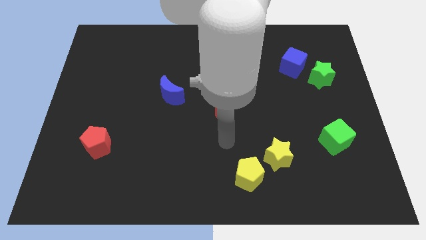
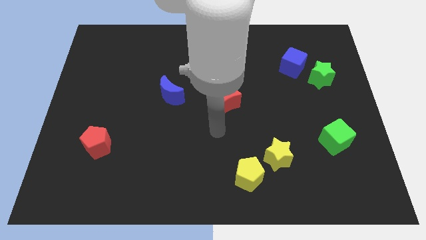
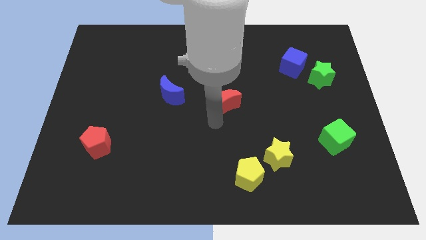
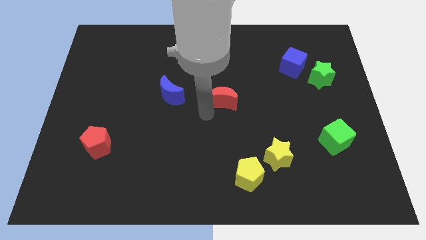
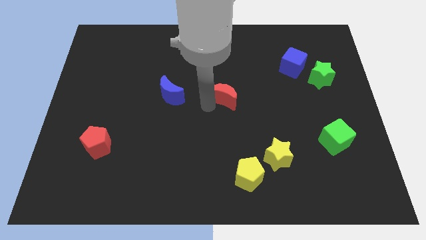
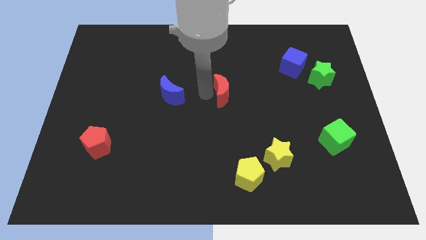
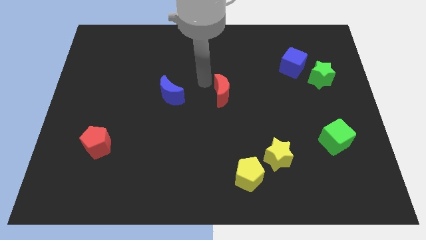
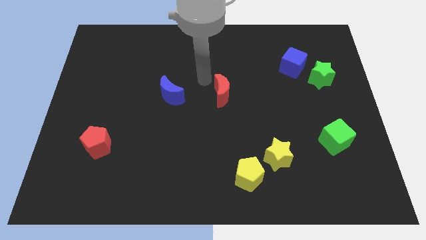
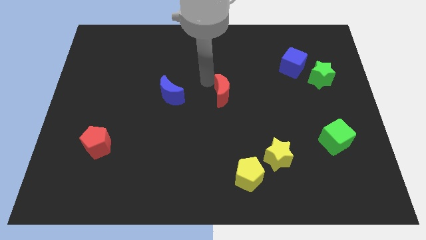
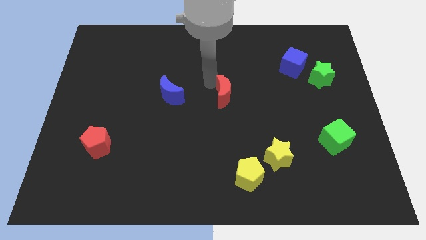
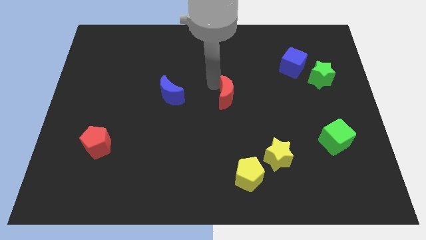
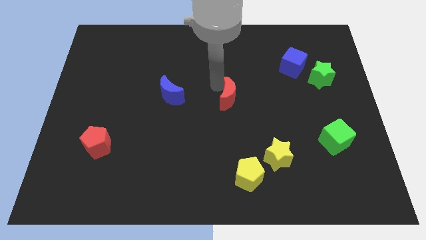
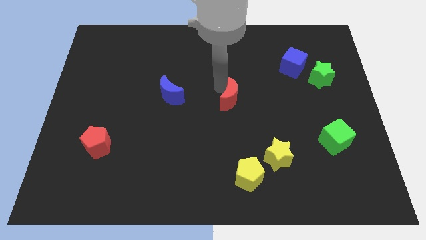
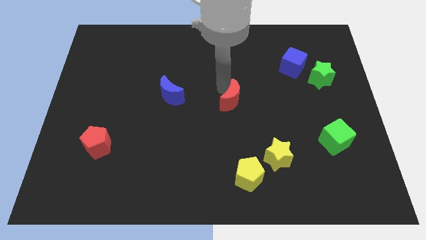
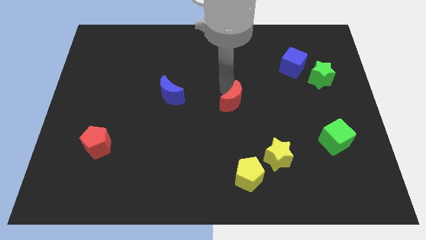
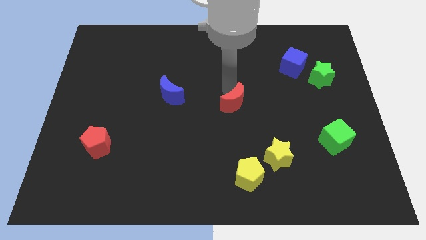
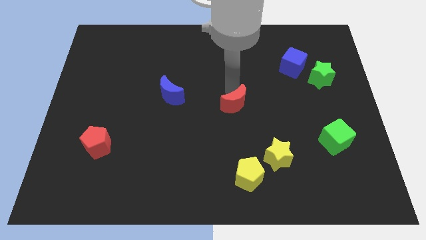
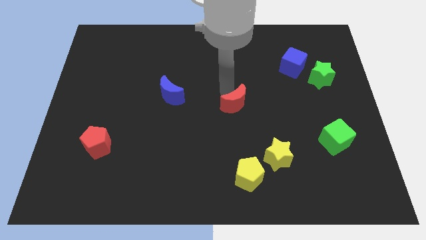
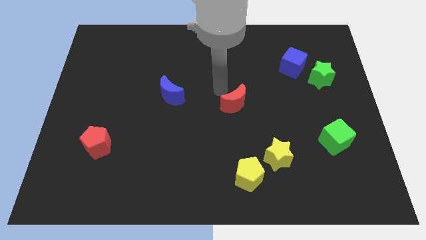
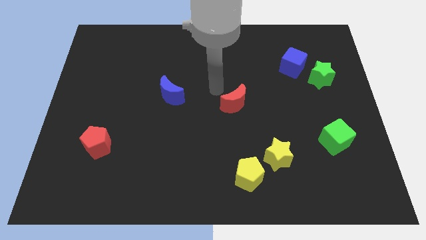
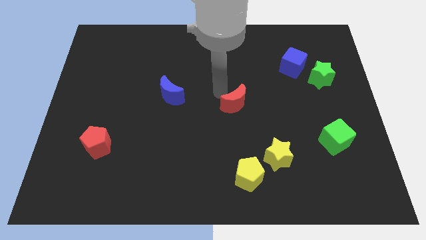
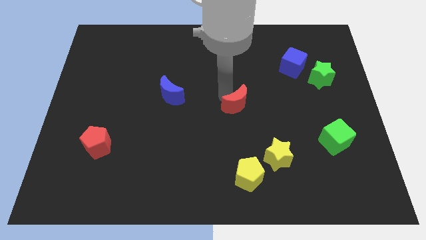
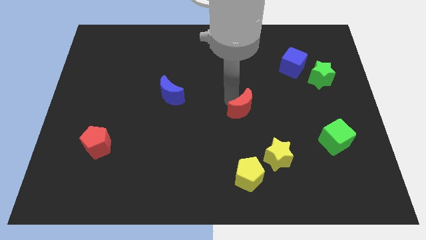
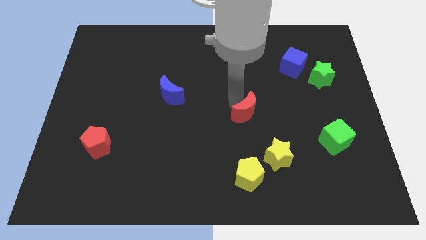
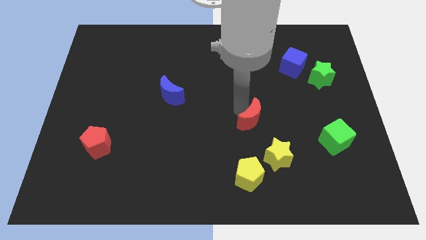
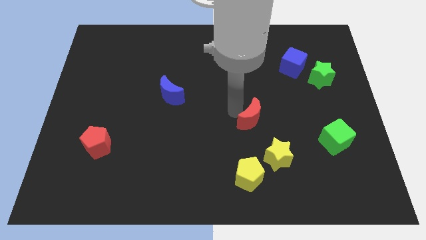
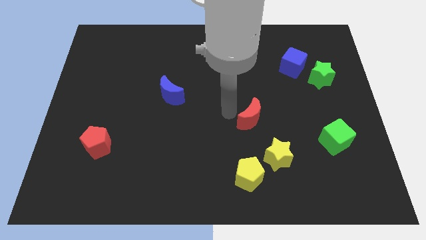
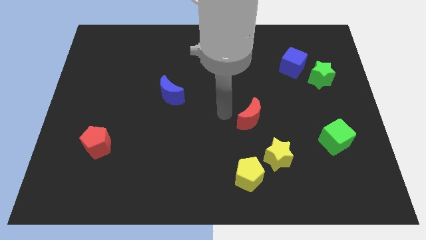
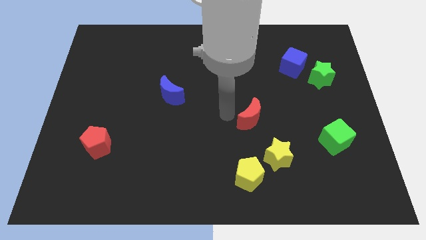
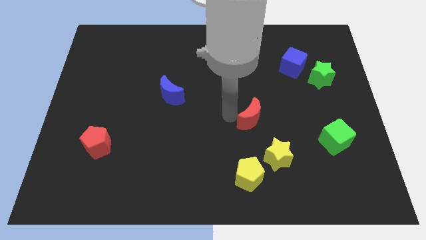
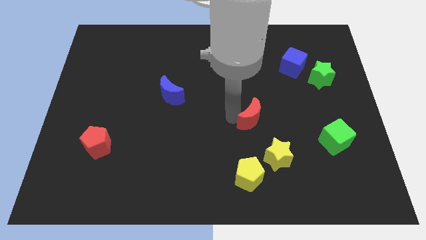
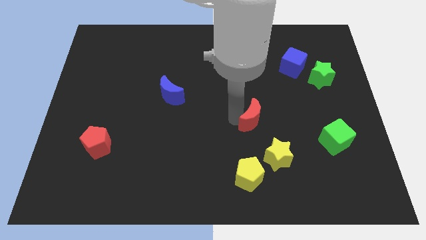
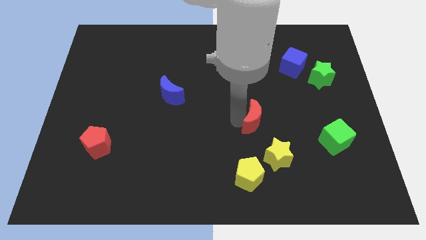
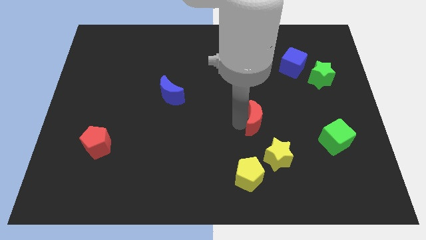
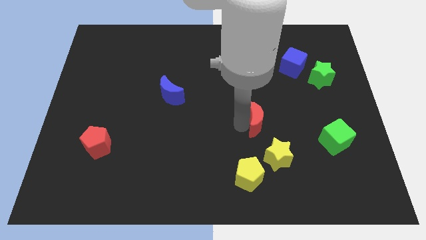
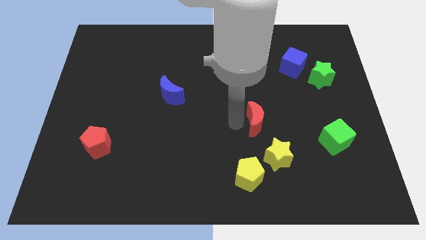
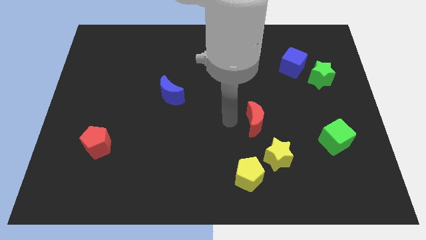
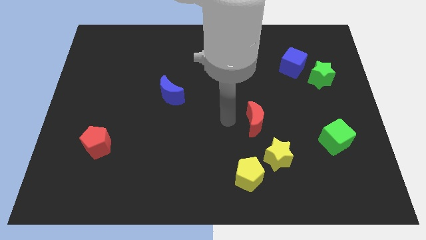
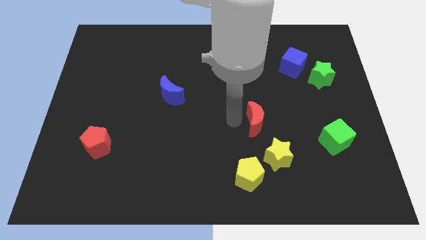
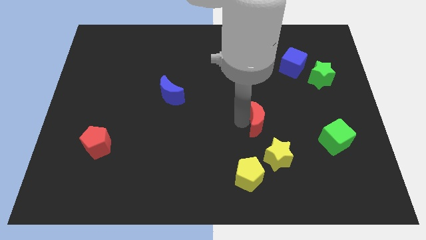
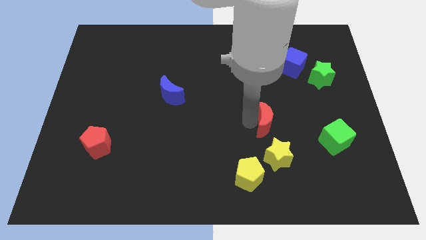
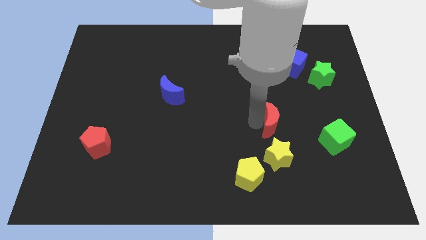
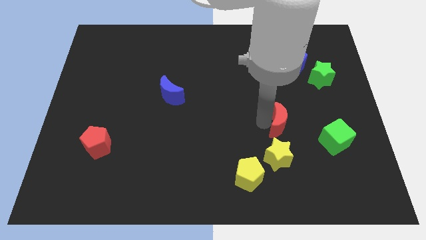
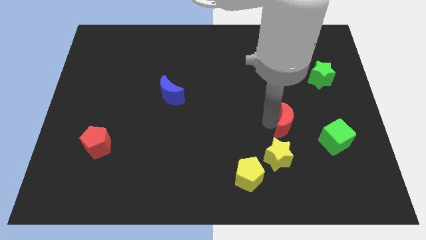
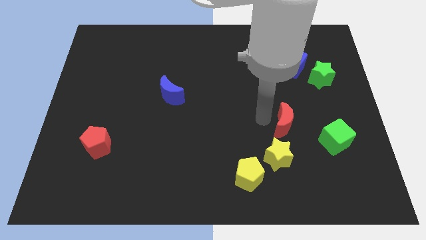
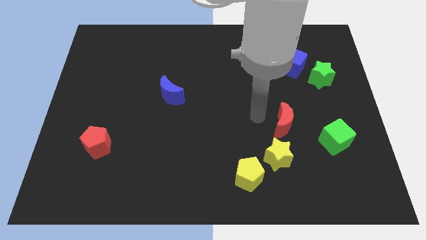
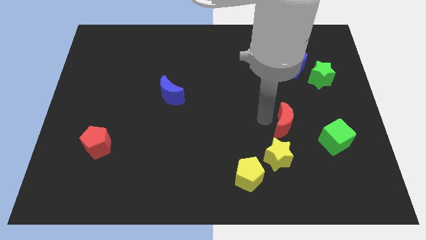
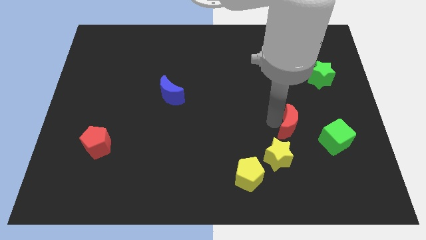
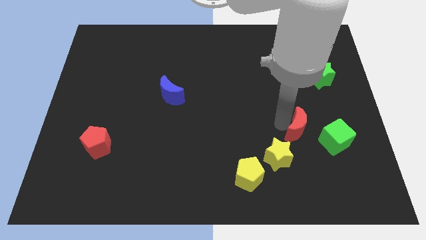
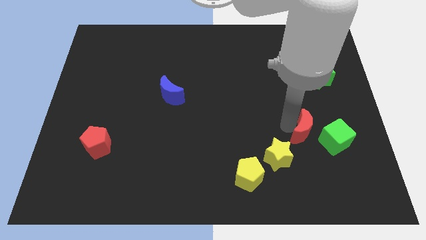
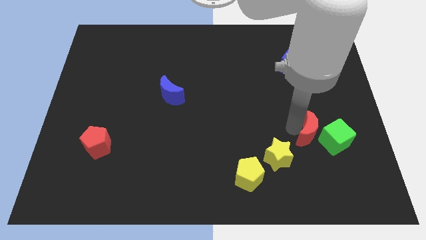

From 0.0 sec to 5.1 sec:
slide the red moon to the green cube

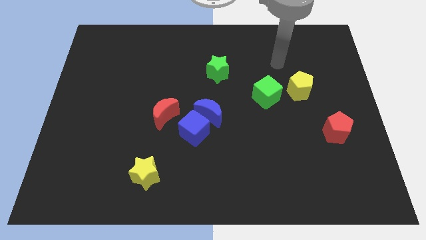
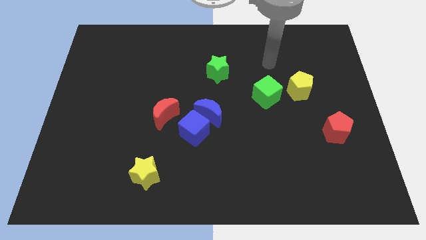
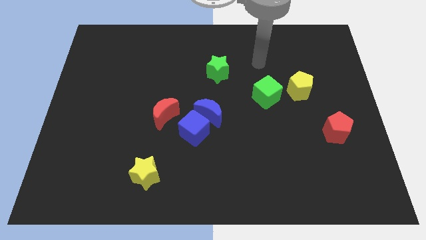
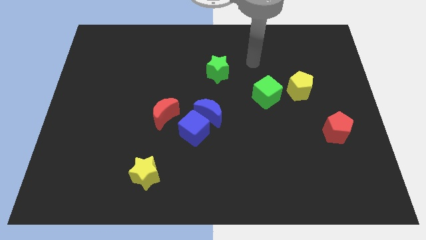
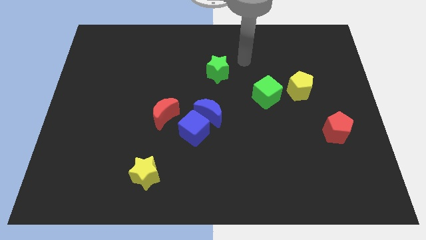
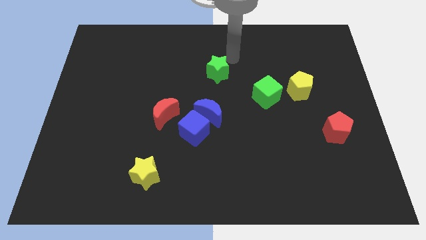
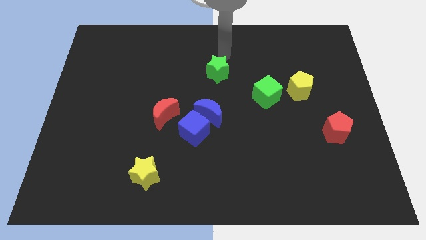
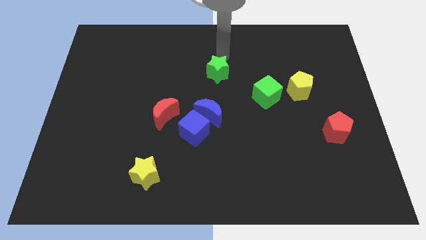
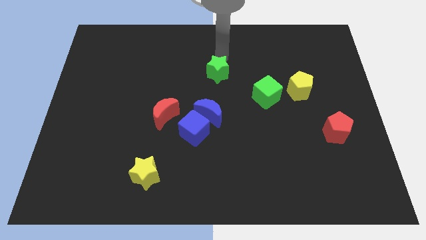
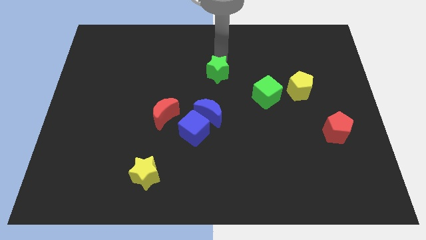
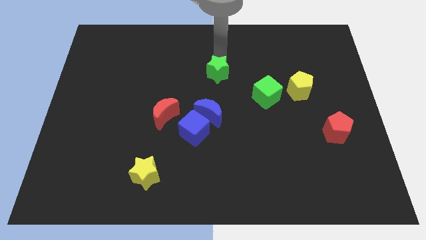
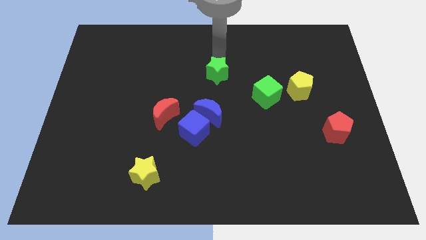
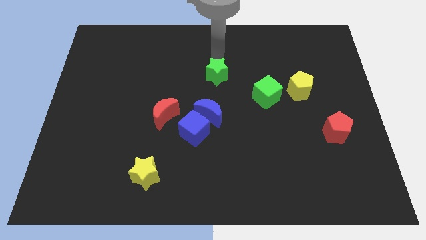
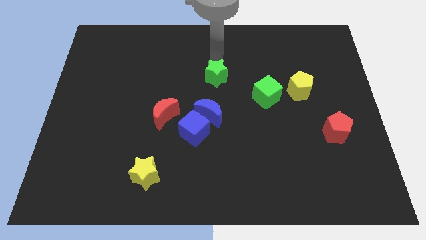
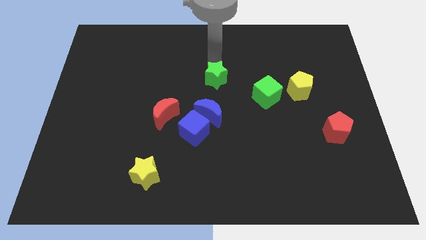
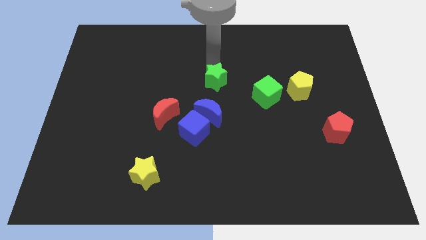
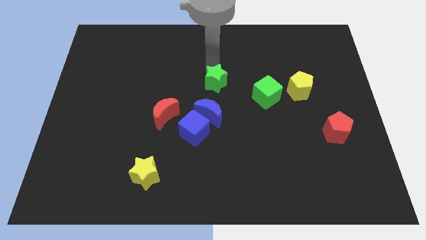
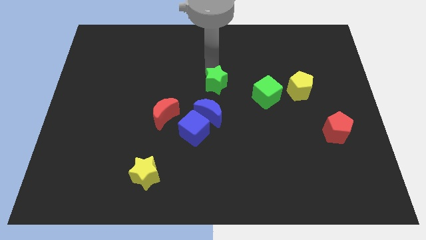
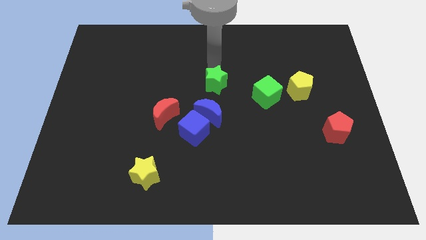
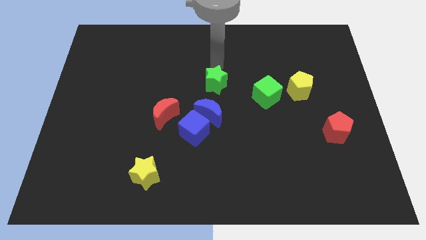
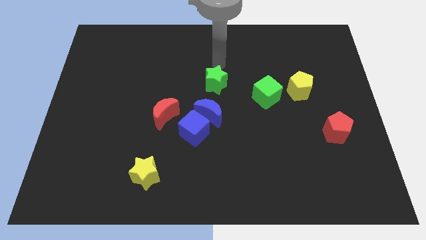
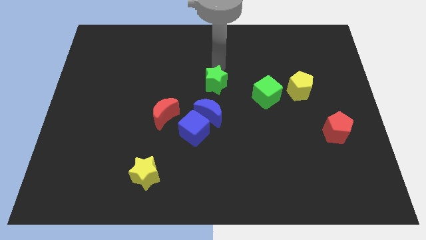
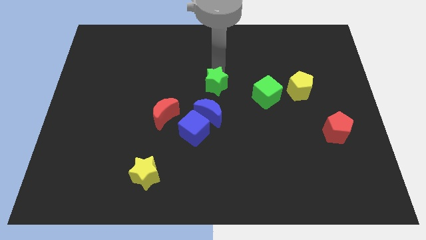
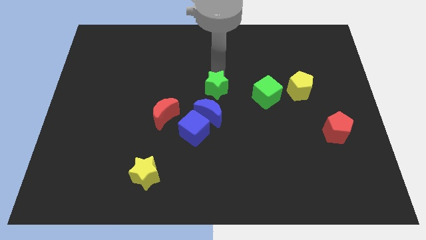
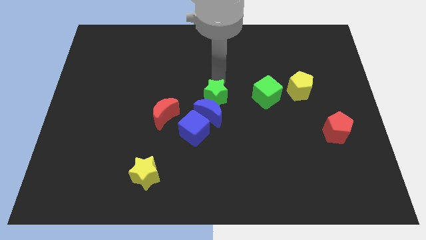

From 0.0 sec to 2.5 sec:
push the green star to the blue moon

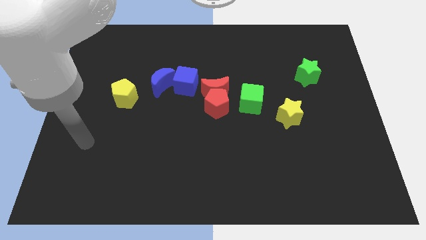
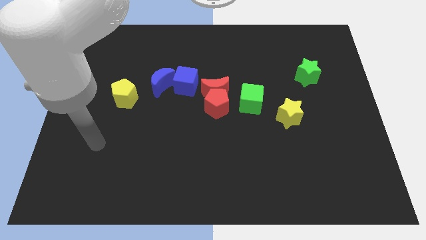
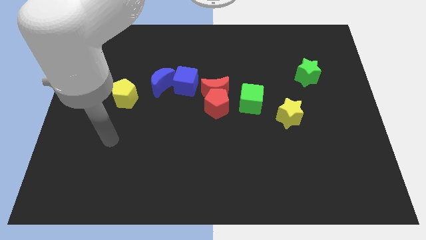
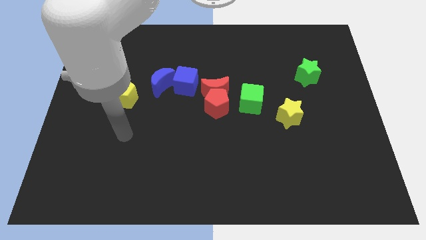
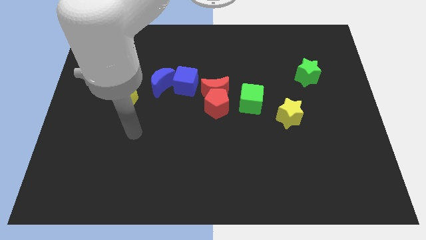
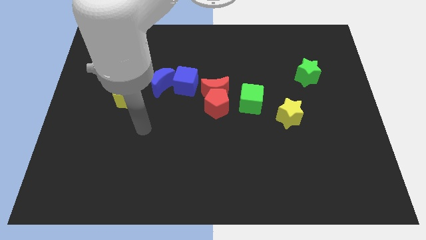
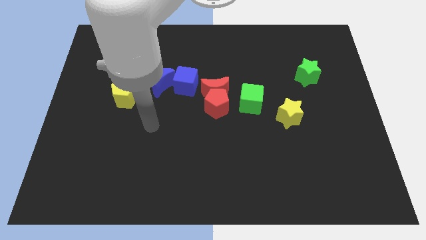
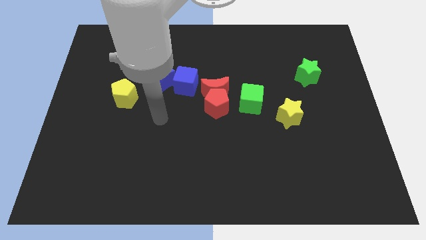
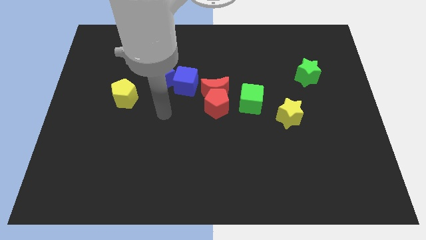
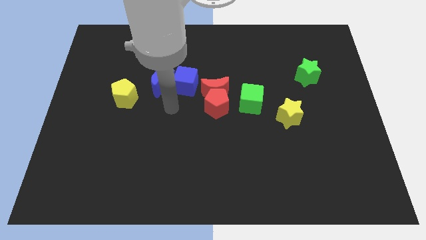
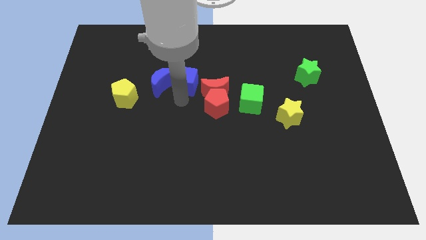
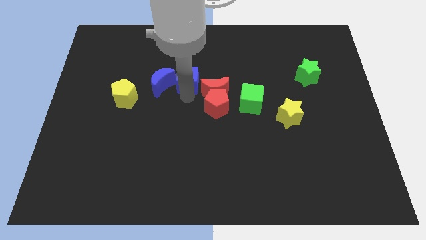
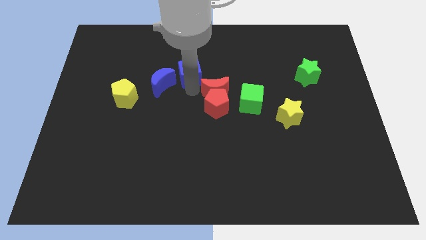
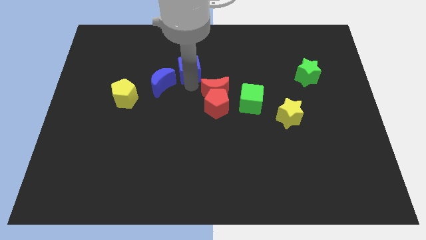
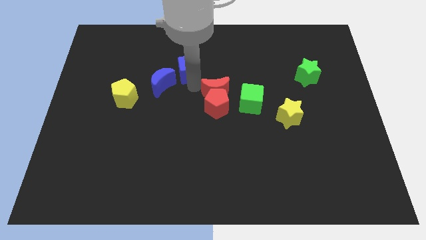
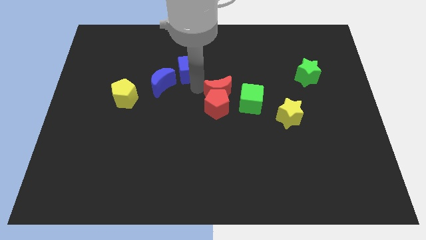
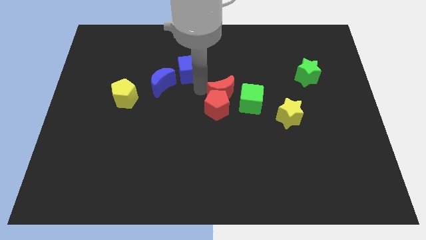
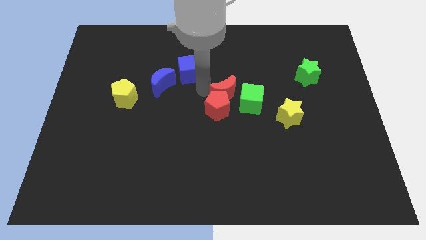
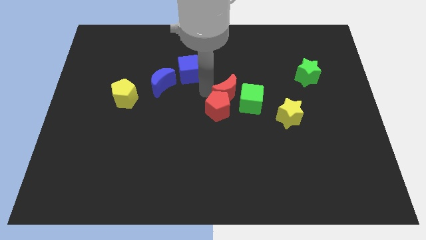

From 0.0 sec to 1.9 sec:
slide the red moon next to the green cube
